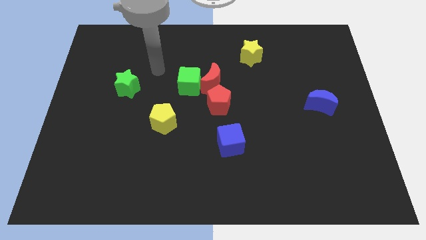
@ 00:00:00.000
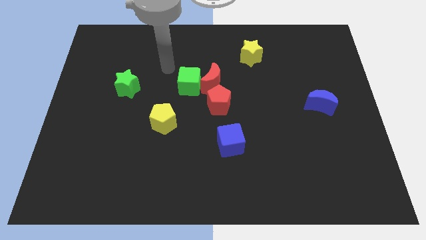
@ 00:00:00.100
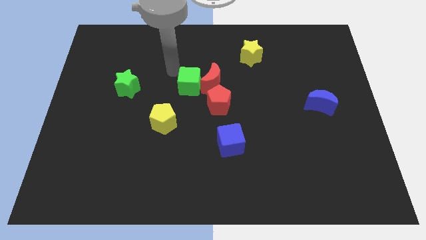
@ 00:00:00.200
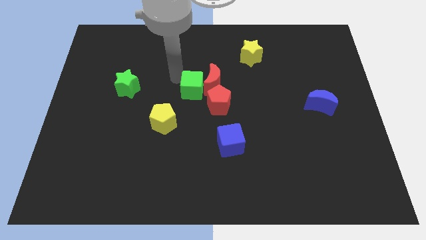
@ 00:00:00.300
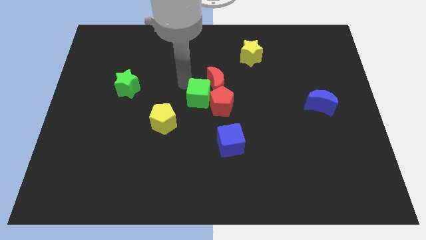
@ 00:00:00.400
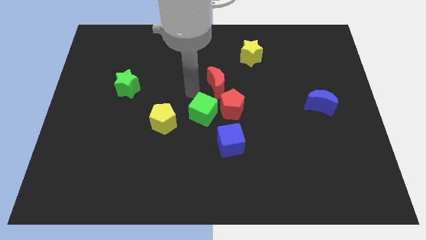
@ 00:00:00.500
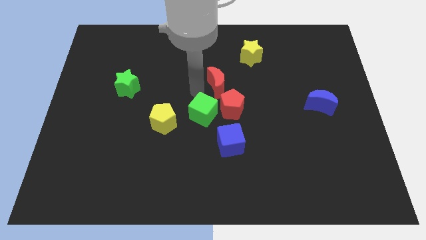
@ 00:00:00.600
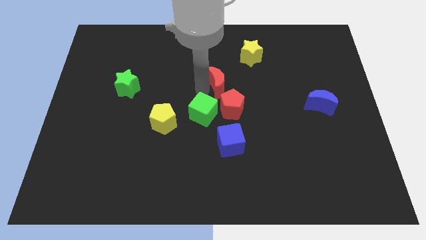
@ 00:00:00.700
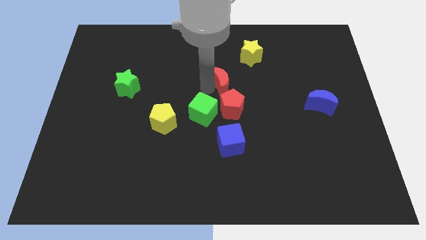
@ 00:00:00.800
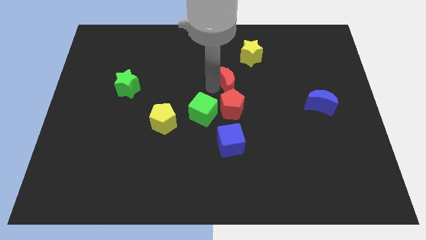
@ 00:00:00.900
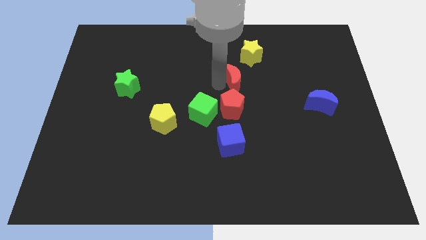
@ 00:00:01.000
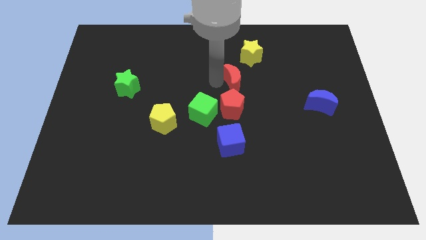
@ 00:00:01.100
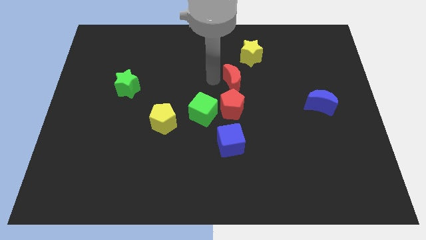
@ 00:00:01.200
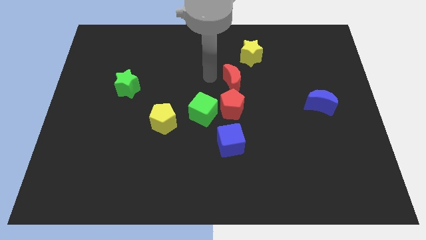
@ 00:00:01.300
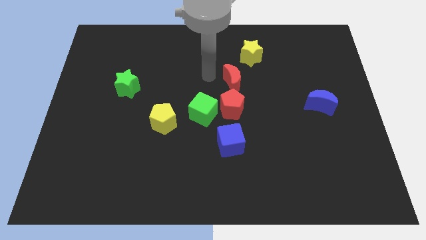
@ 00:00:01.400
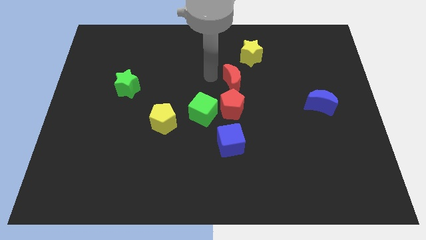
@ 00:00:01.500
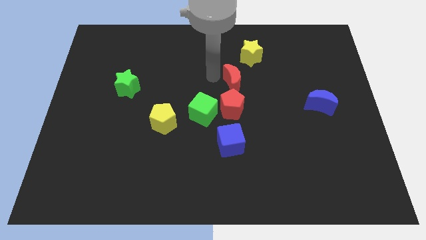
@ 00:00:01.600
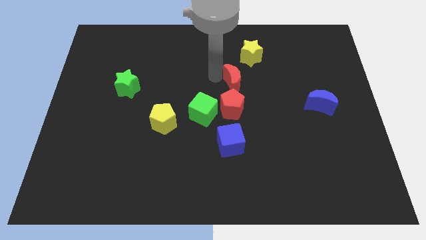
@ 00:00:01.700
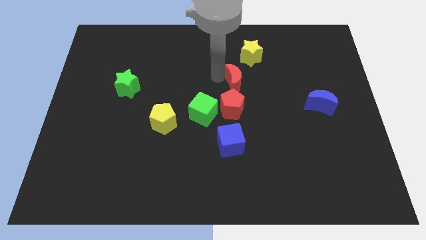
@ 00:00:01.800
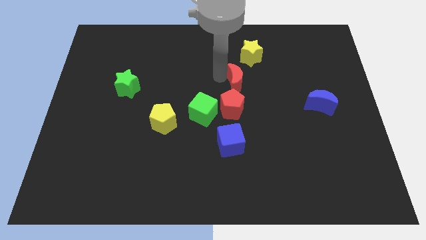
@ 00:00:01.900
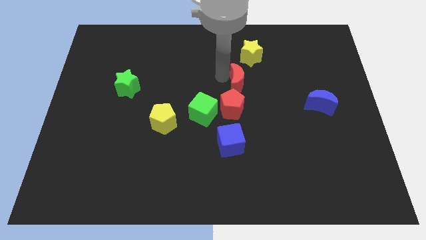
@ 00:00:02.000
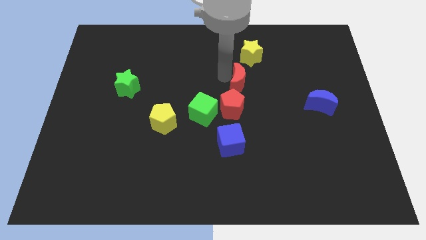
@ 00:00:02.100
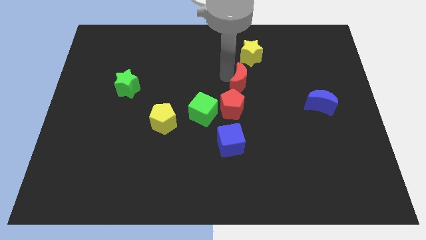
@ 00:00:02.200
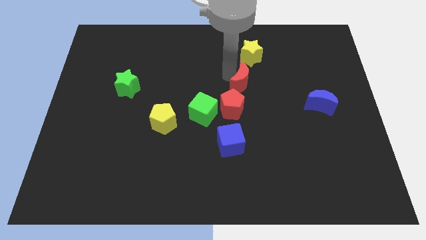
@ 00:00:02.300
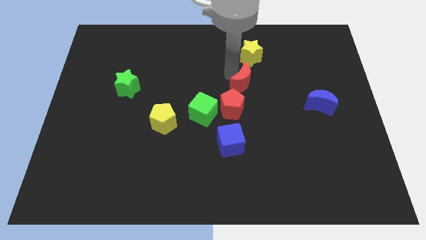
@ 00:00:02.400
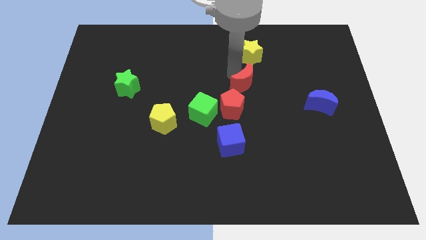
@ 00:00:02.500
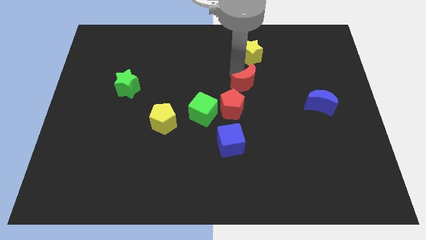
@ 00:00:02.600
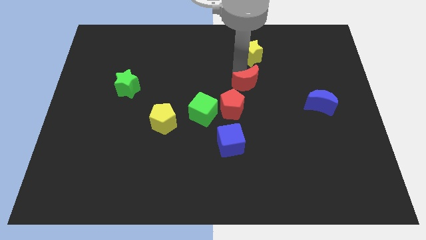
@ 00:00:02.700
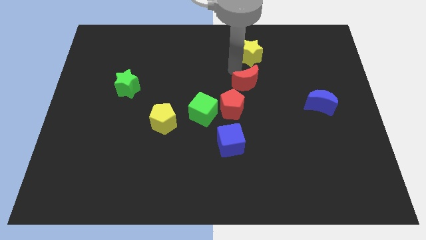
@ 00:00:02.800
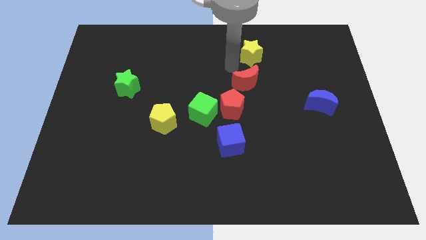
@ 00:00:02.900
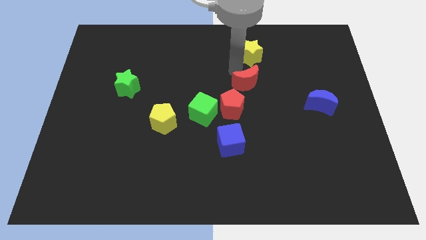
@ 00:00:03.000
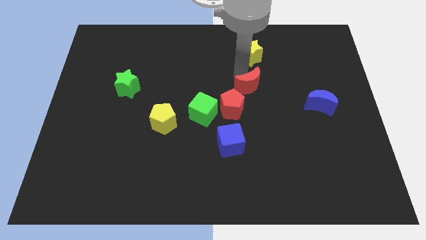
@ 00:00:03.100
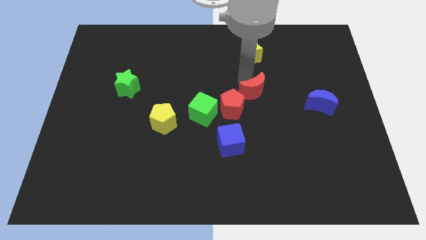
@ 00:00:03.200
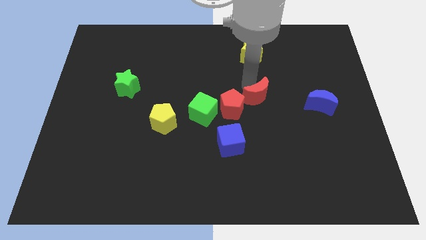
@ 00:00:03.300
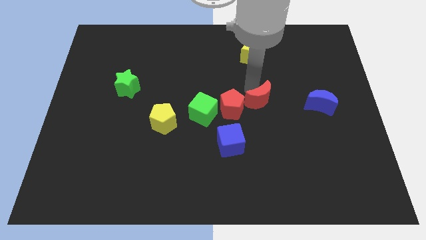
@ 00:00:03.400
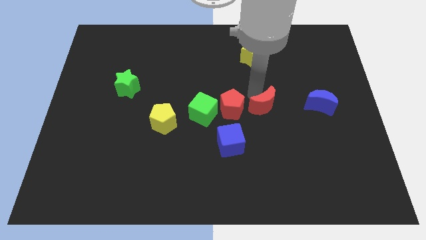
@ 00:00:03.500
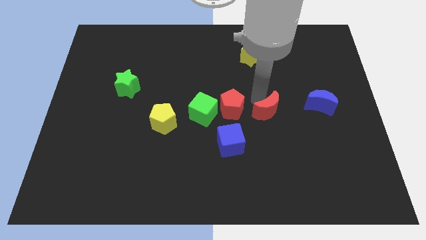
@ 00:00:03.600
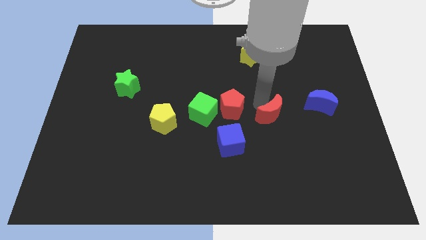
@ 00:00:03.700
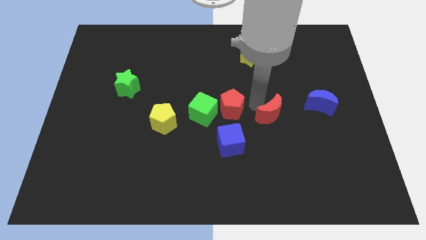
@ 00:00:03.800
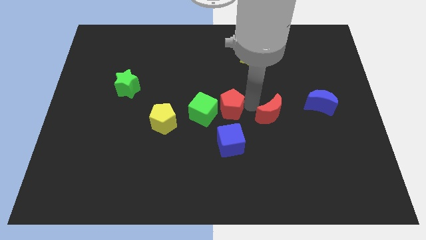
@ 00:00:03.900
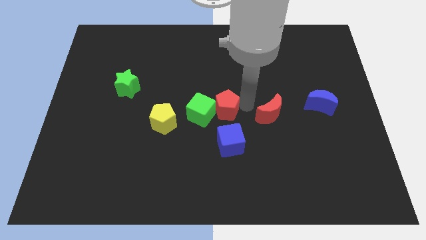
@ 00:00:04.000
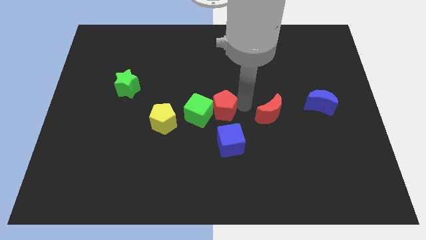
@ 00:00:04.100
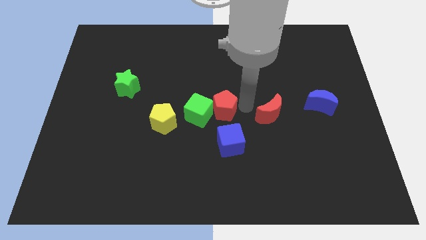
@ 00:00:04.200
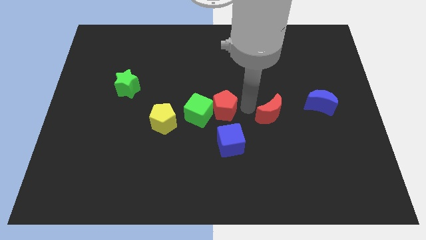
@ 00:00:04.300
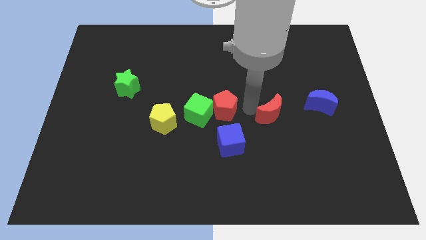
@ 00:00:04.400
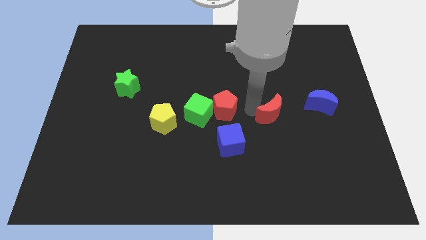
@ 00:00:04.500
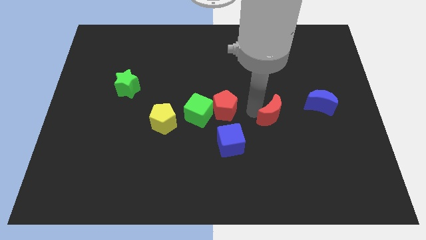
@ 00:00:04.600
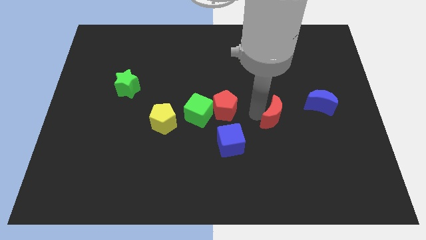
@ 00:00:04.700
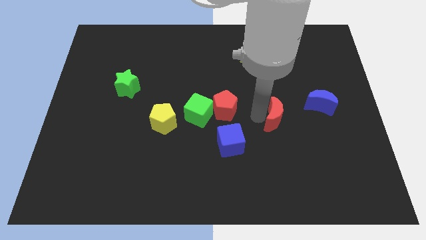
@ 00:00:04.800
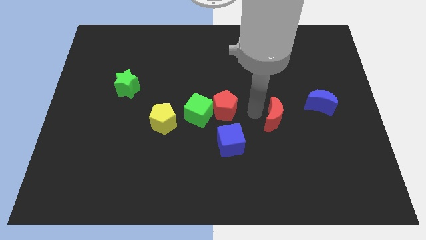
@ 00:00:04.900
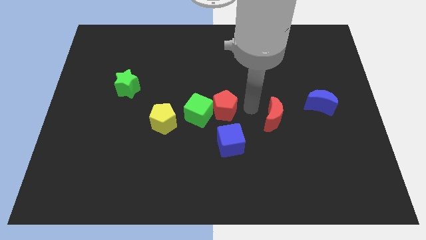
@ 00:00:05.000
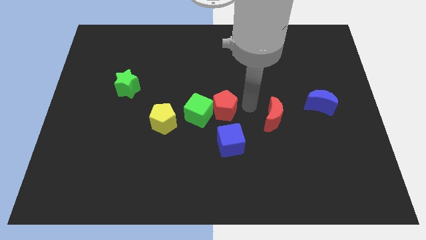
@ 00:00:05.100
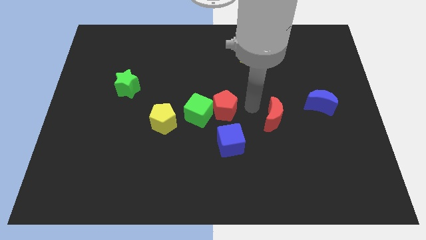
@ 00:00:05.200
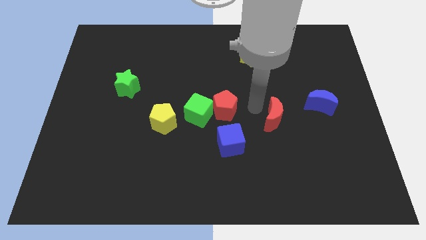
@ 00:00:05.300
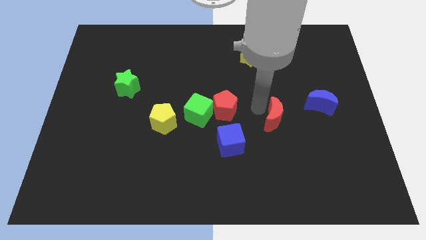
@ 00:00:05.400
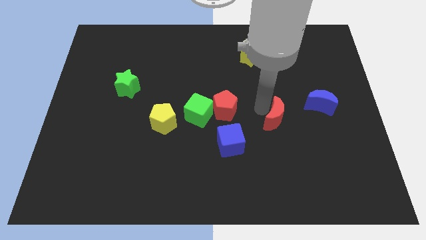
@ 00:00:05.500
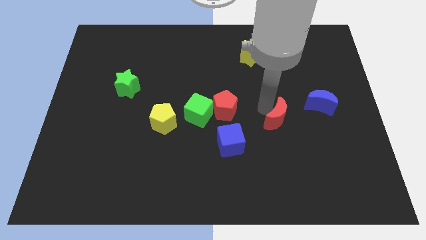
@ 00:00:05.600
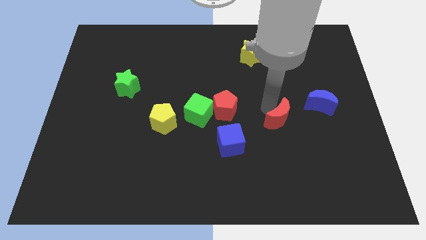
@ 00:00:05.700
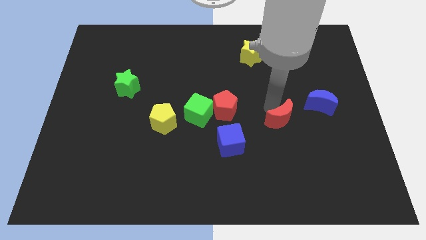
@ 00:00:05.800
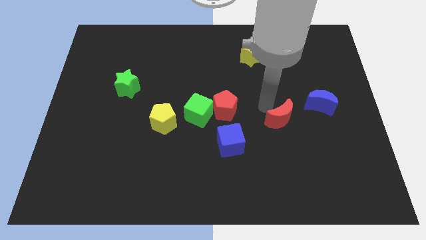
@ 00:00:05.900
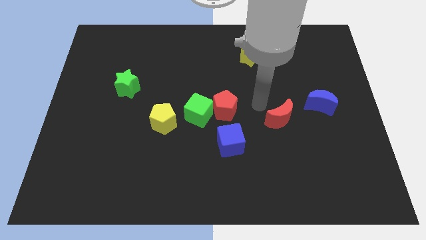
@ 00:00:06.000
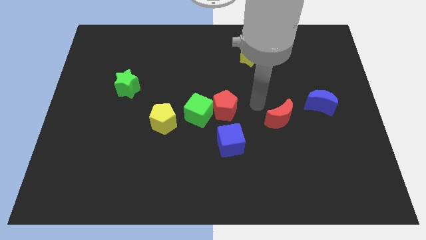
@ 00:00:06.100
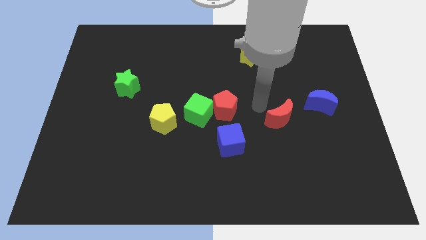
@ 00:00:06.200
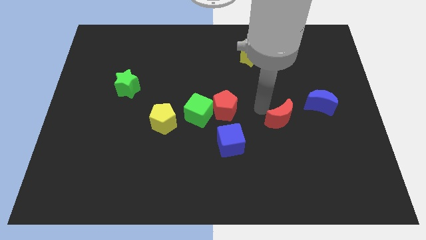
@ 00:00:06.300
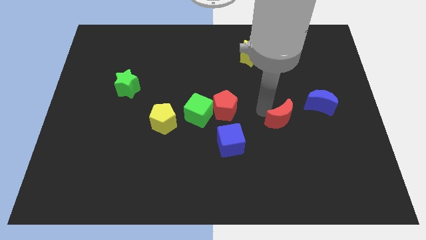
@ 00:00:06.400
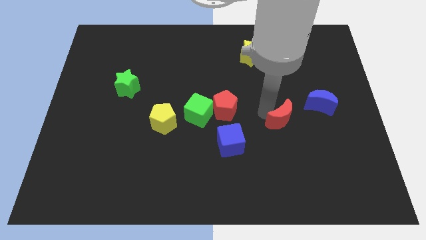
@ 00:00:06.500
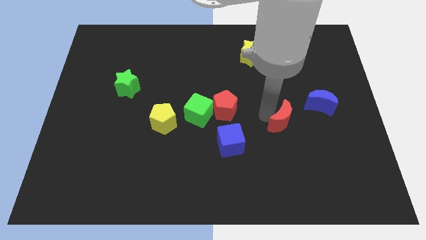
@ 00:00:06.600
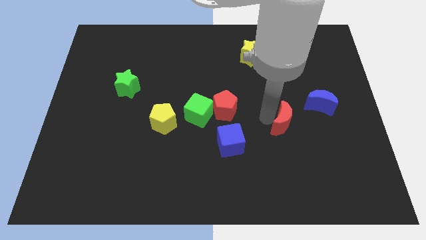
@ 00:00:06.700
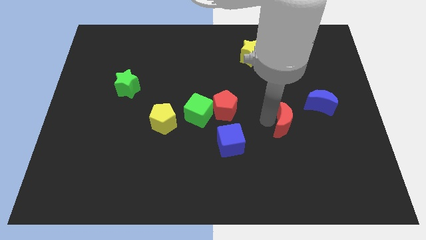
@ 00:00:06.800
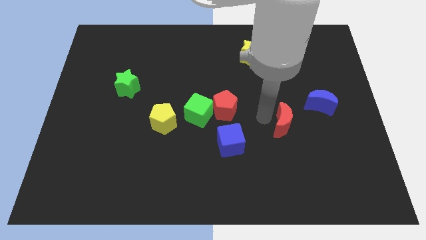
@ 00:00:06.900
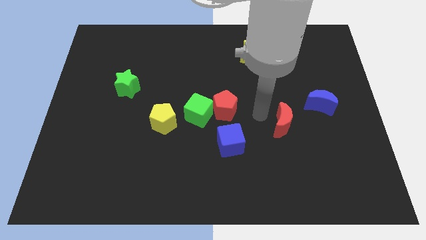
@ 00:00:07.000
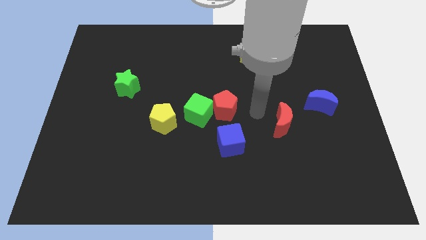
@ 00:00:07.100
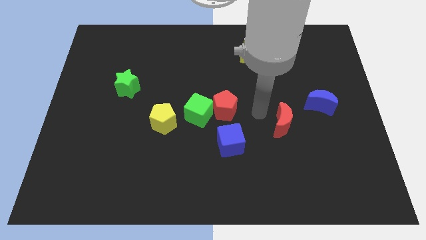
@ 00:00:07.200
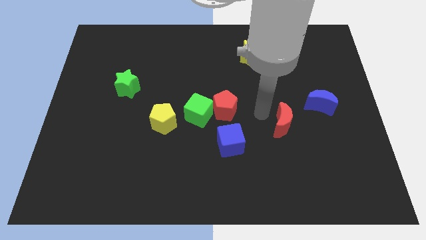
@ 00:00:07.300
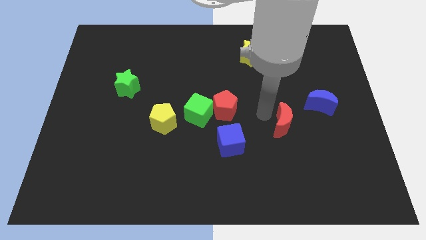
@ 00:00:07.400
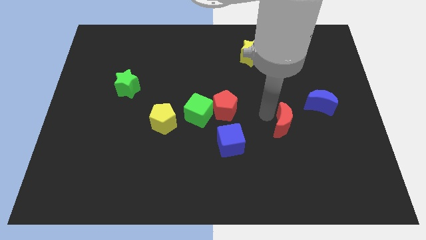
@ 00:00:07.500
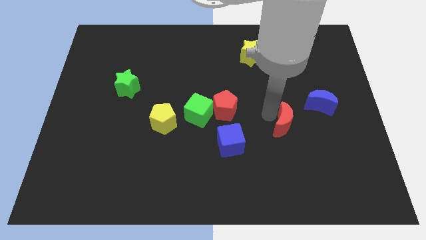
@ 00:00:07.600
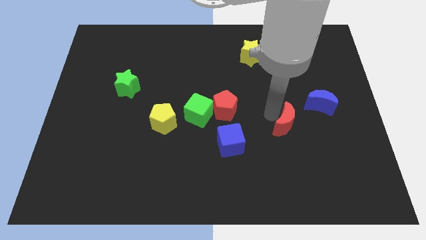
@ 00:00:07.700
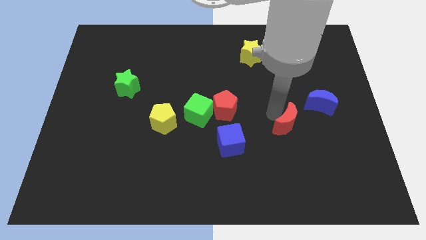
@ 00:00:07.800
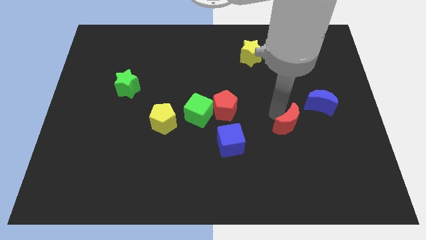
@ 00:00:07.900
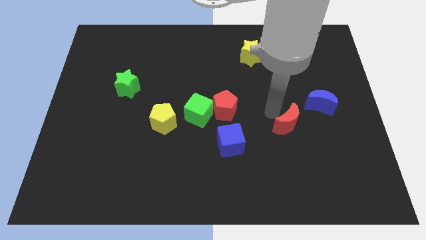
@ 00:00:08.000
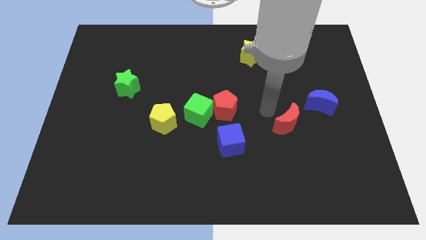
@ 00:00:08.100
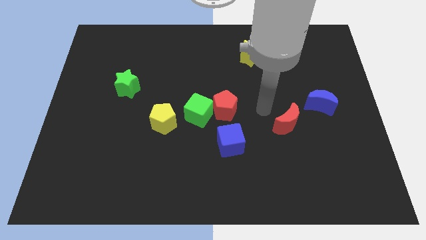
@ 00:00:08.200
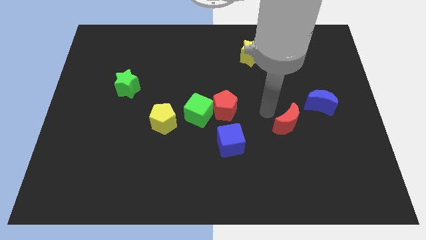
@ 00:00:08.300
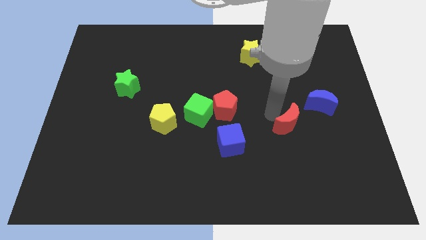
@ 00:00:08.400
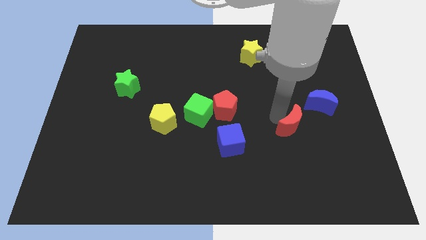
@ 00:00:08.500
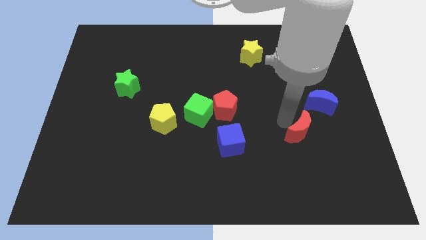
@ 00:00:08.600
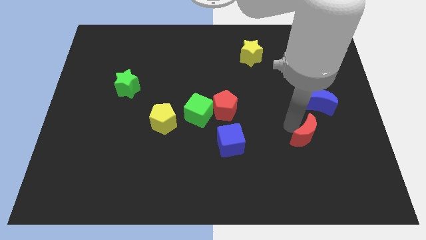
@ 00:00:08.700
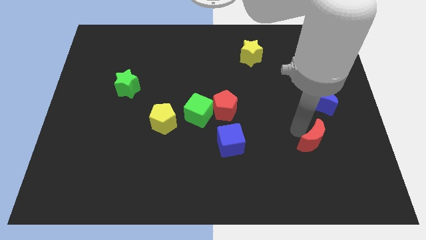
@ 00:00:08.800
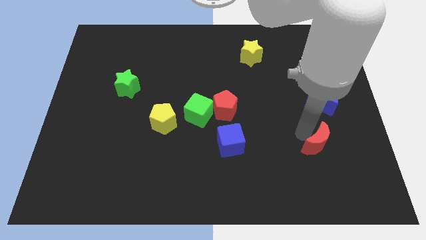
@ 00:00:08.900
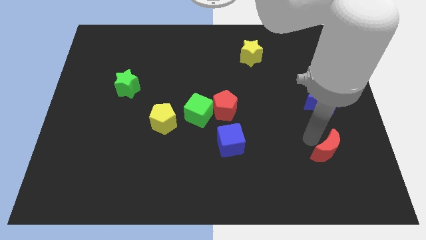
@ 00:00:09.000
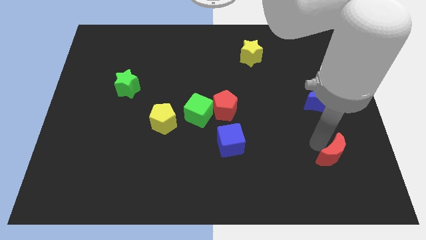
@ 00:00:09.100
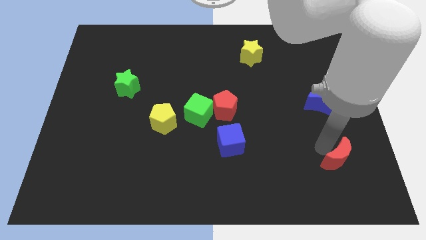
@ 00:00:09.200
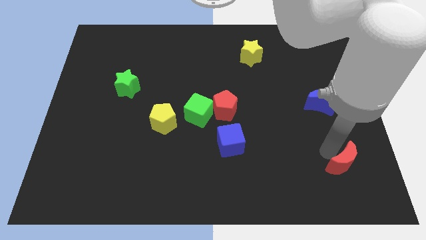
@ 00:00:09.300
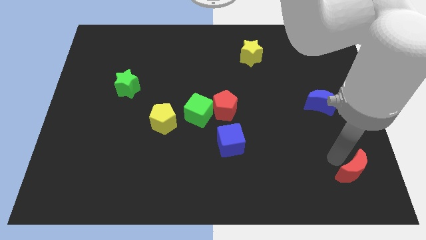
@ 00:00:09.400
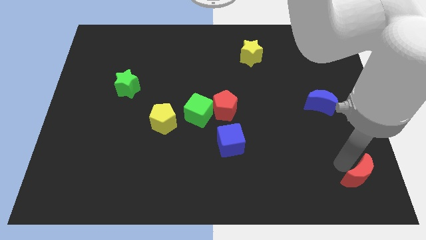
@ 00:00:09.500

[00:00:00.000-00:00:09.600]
put the red moon to the lower right corner
